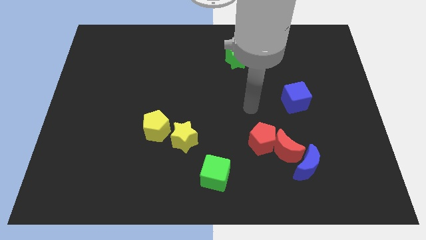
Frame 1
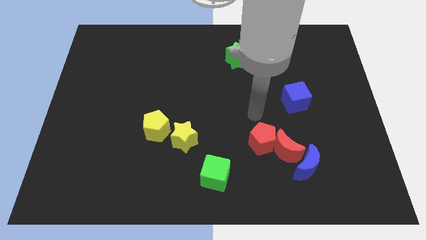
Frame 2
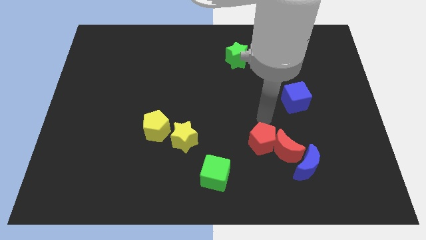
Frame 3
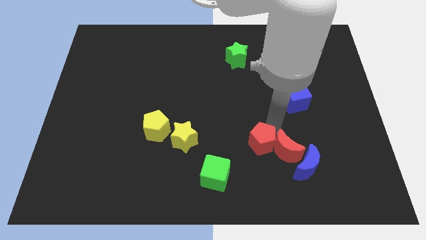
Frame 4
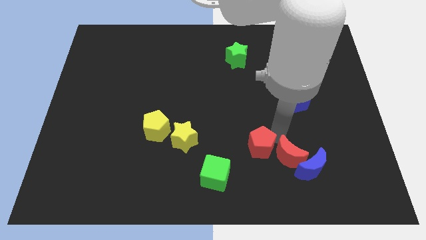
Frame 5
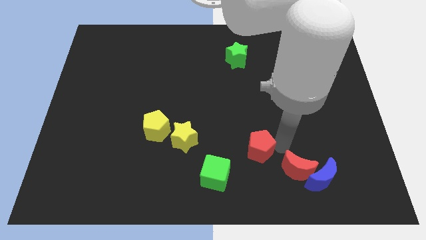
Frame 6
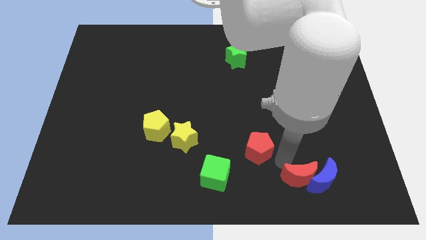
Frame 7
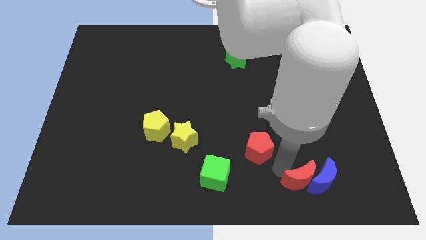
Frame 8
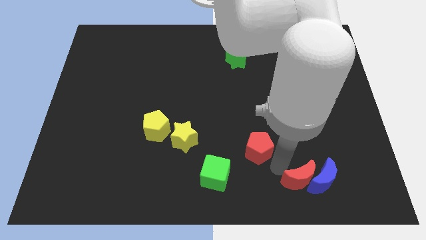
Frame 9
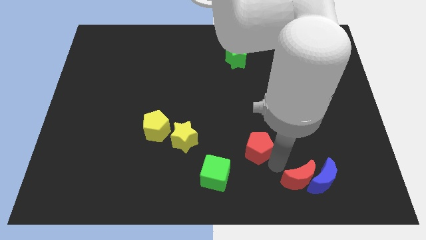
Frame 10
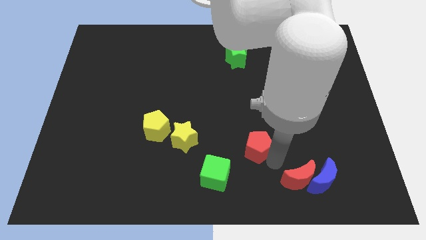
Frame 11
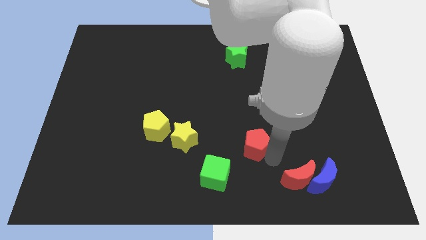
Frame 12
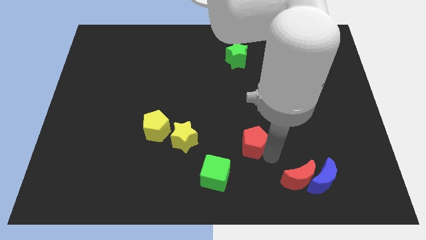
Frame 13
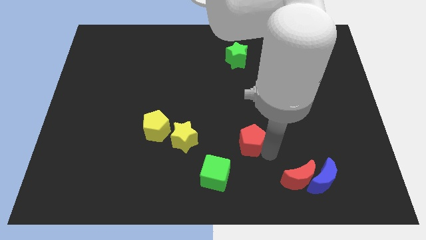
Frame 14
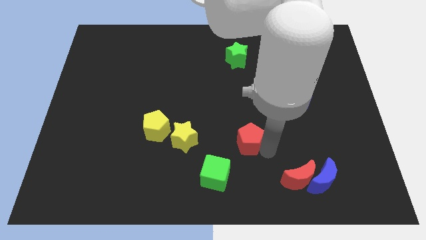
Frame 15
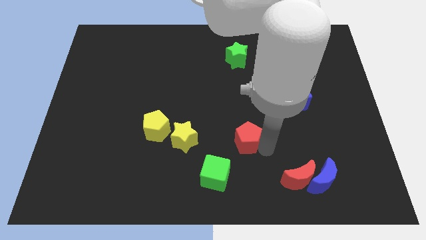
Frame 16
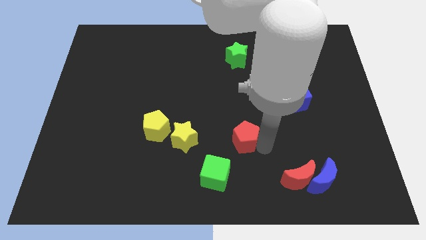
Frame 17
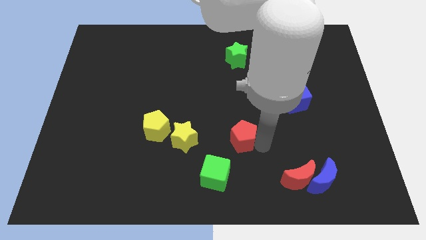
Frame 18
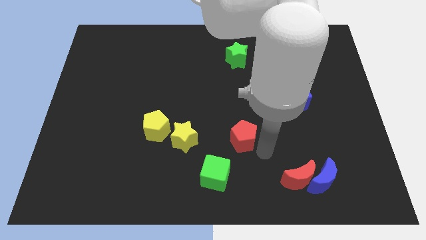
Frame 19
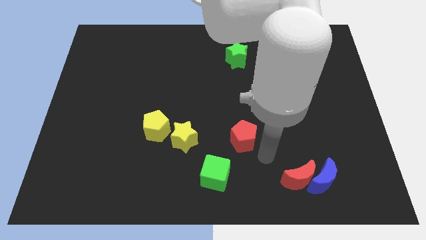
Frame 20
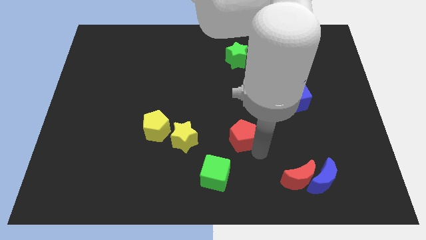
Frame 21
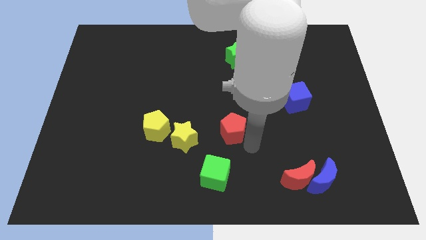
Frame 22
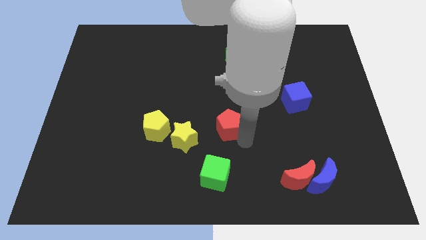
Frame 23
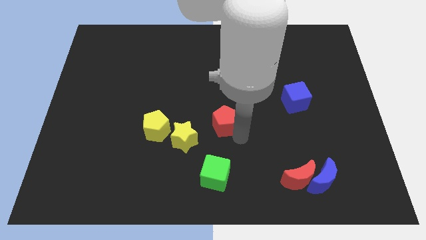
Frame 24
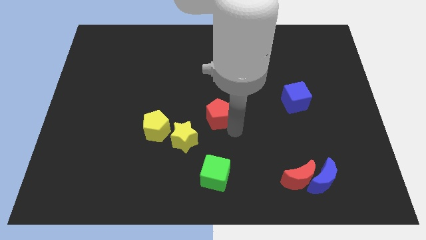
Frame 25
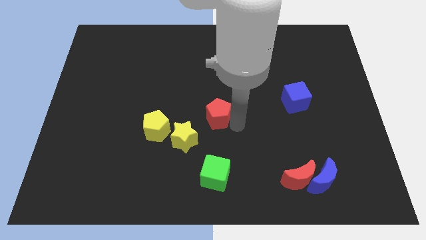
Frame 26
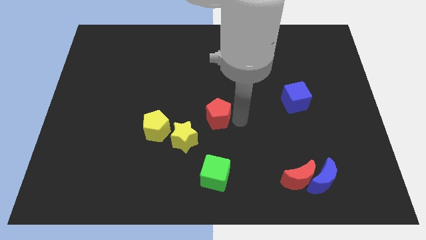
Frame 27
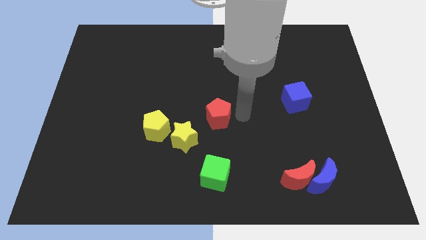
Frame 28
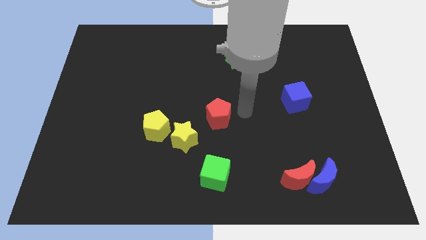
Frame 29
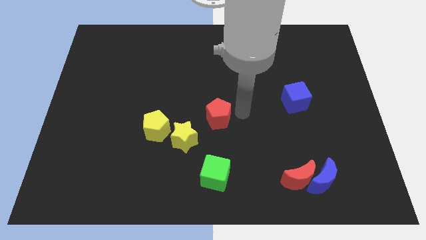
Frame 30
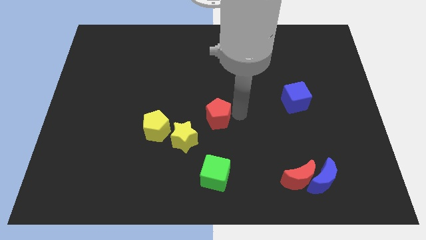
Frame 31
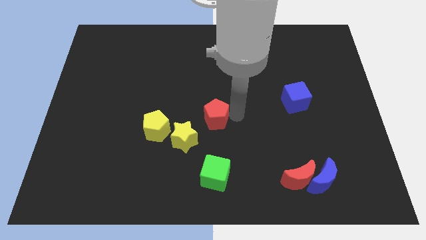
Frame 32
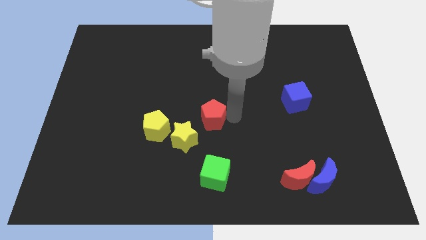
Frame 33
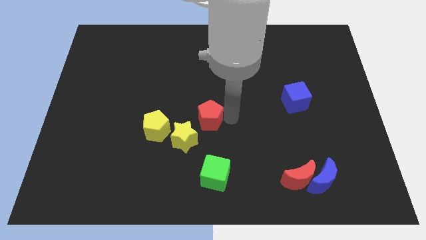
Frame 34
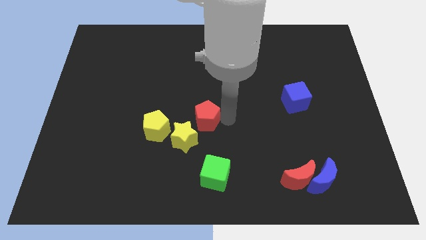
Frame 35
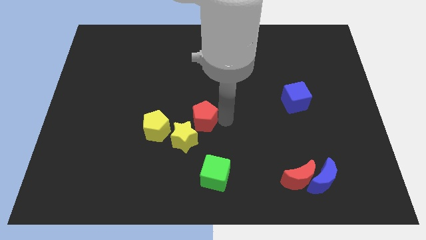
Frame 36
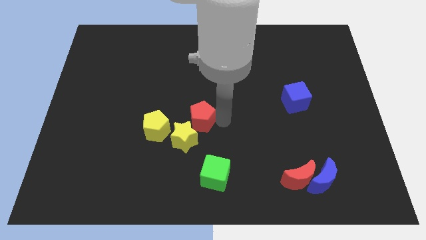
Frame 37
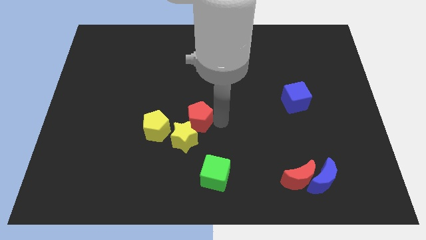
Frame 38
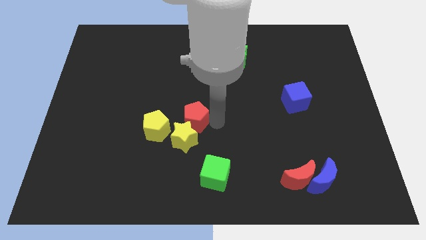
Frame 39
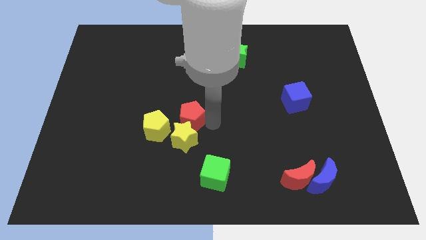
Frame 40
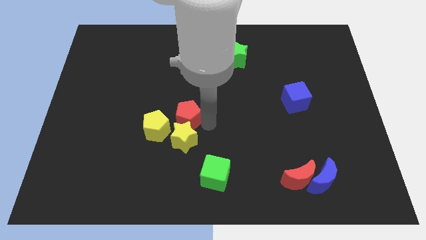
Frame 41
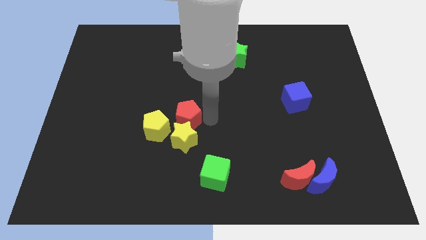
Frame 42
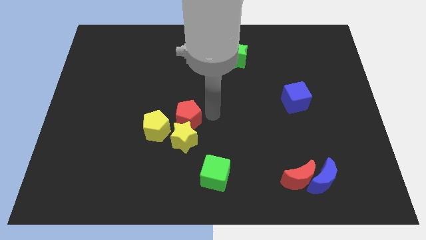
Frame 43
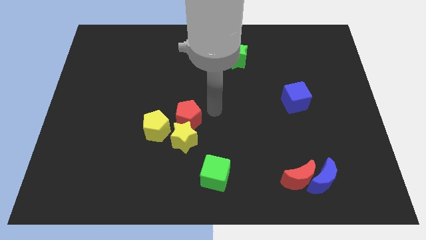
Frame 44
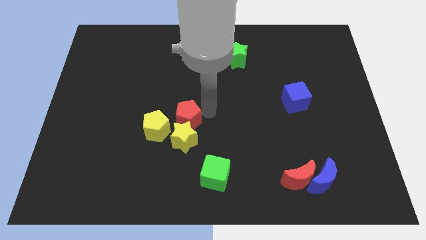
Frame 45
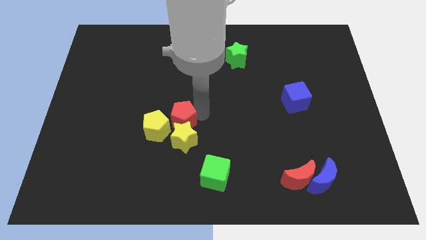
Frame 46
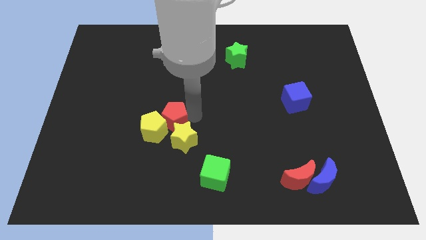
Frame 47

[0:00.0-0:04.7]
move the red pentagon towards the yellow pentagon

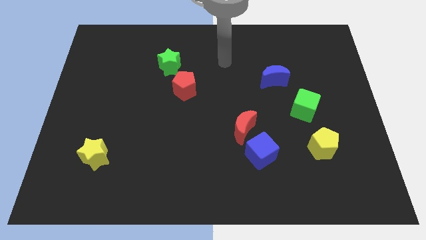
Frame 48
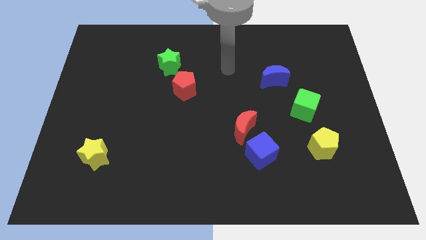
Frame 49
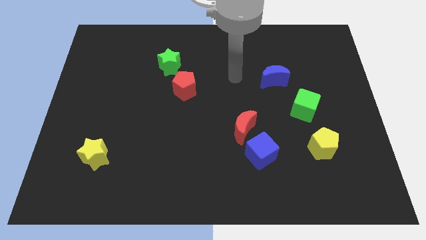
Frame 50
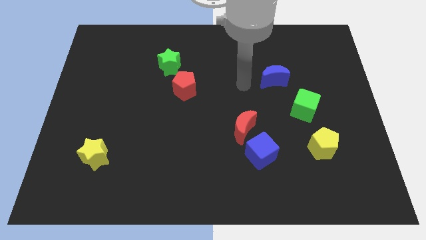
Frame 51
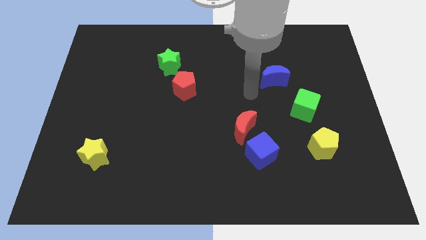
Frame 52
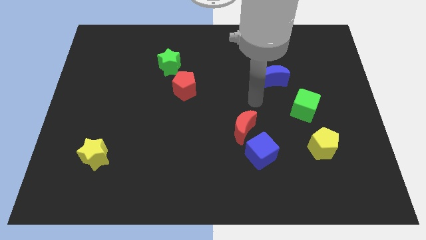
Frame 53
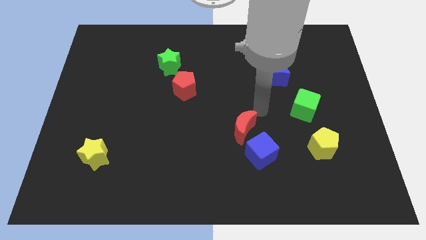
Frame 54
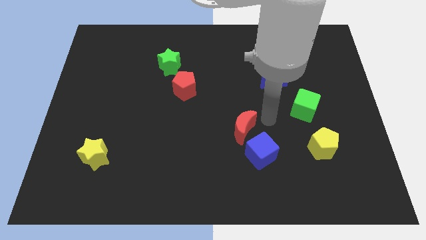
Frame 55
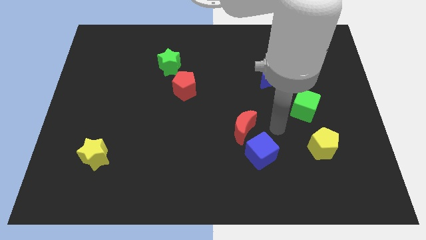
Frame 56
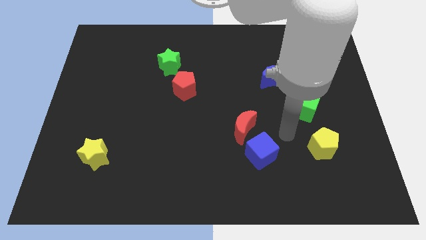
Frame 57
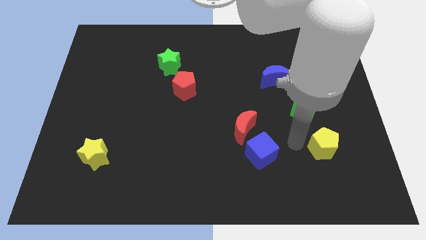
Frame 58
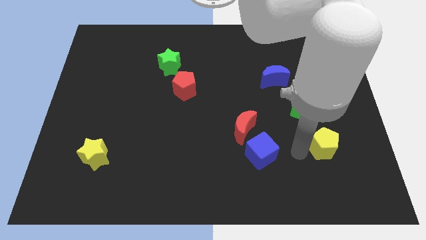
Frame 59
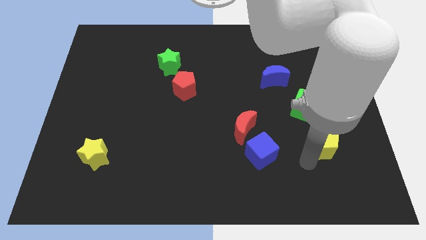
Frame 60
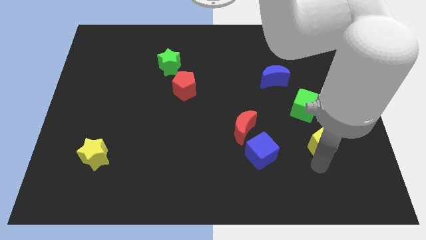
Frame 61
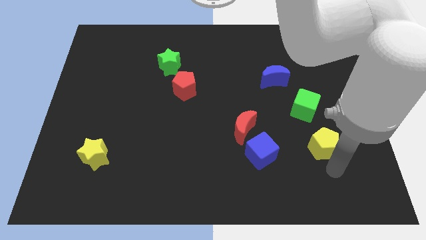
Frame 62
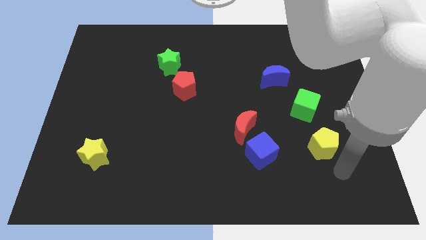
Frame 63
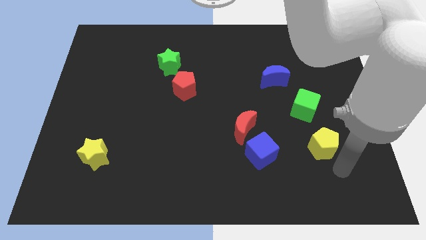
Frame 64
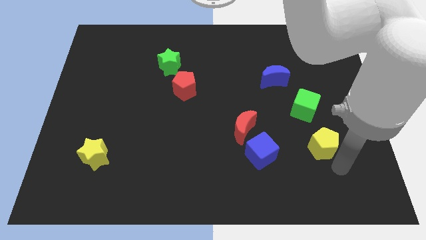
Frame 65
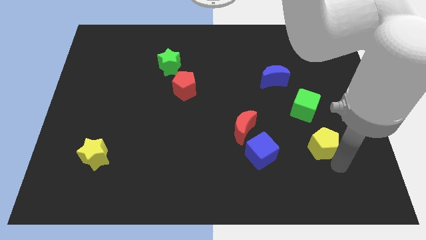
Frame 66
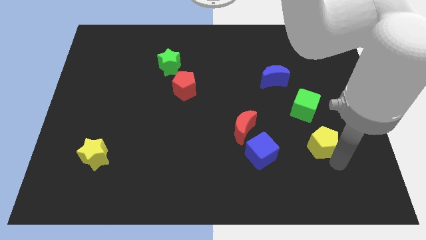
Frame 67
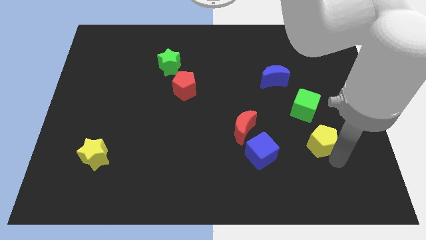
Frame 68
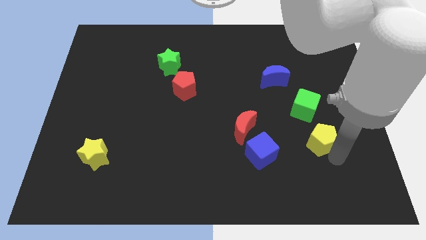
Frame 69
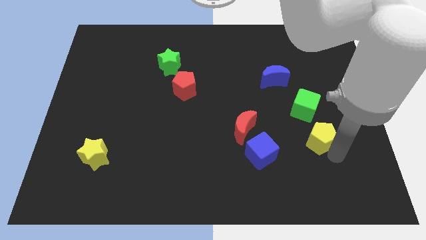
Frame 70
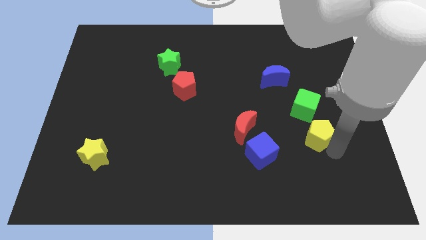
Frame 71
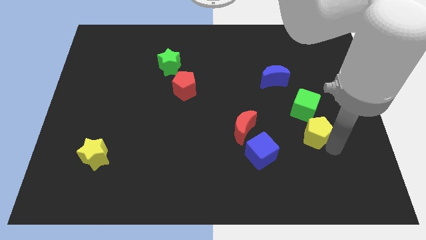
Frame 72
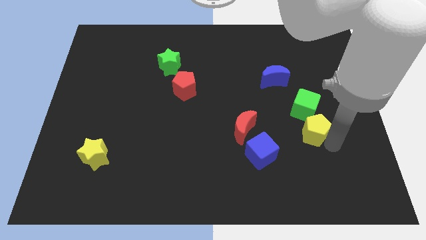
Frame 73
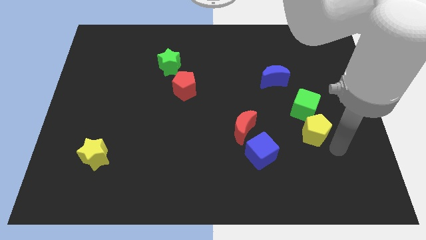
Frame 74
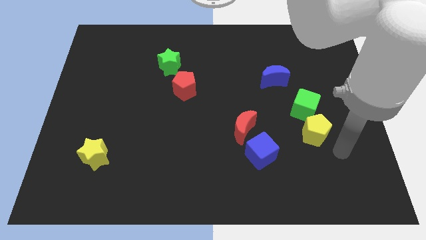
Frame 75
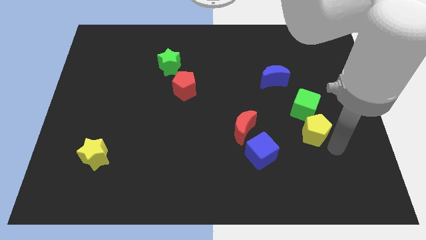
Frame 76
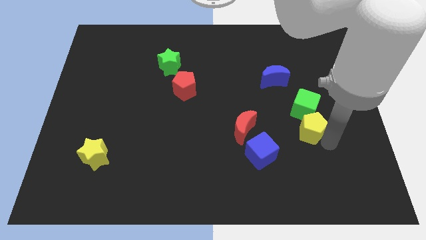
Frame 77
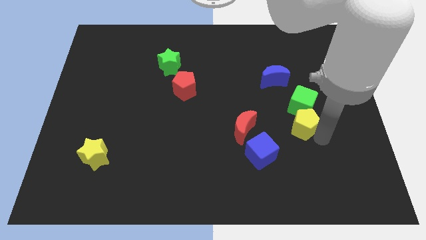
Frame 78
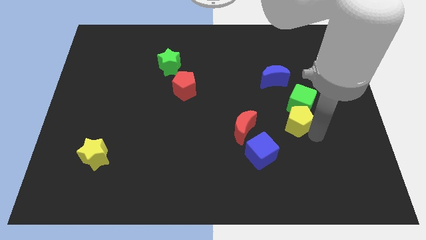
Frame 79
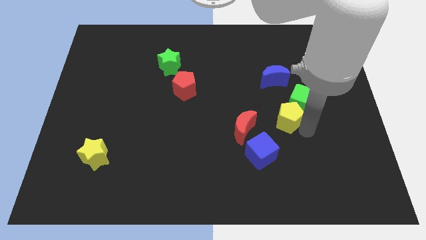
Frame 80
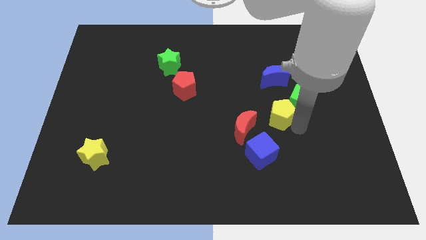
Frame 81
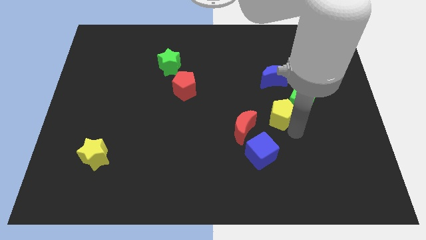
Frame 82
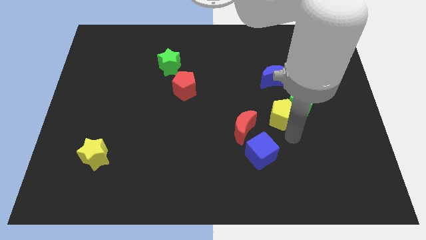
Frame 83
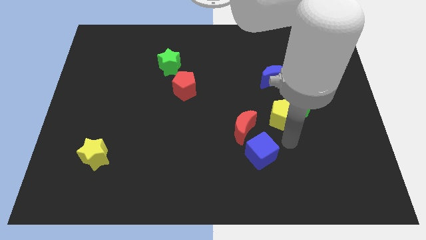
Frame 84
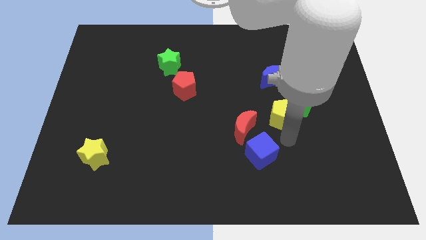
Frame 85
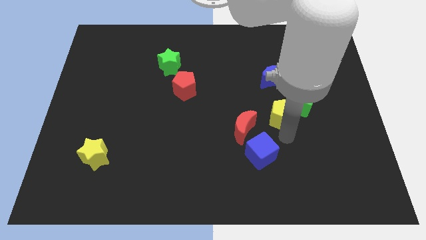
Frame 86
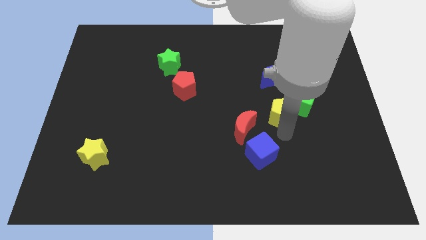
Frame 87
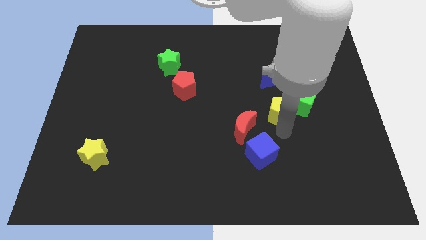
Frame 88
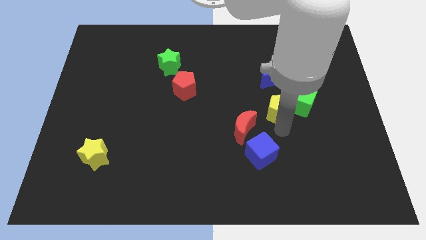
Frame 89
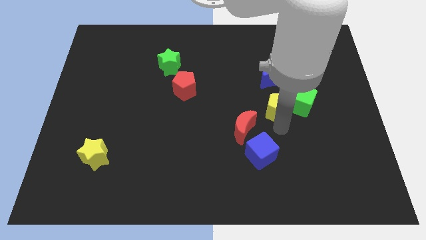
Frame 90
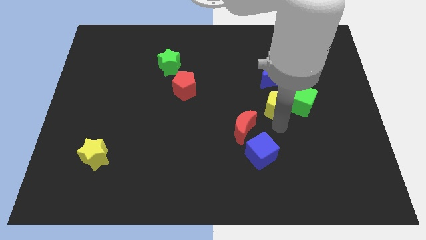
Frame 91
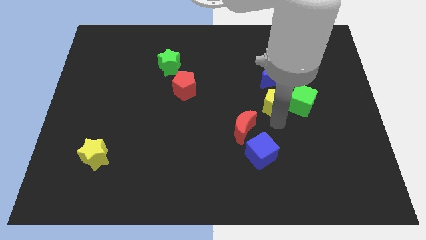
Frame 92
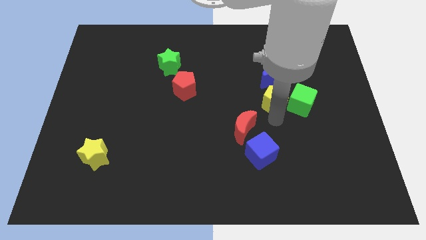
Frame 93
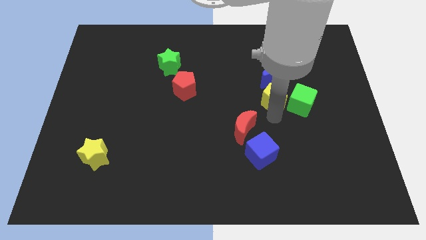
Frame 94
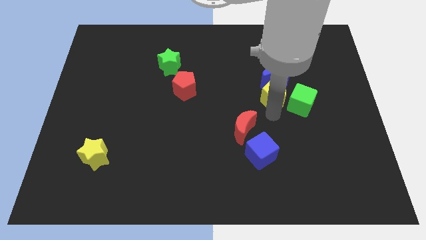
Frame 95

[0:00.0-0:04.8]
push the yellow pentagon to the blue moon
